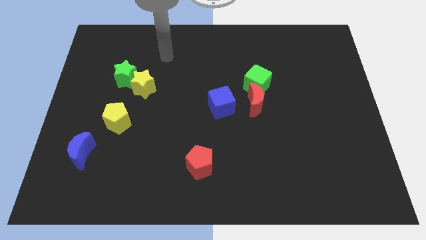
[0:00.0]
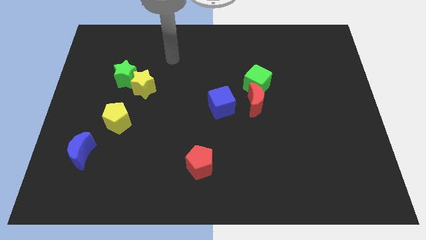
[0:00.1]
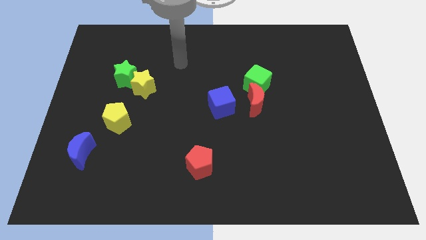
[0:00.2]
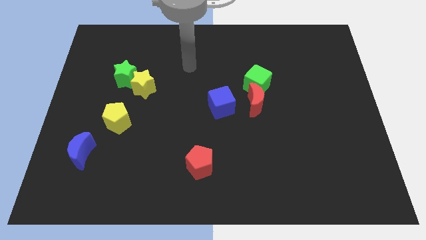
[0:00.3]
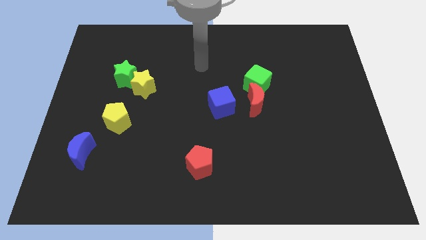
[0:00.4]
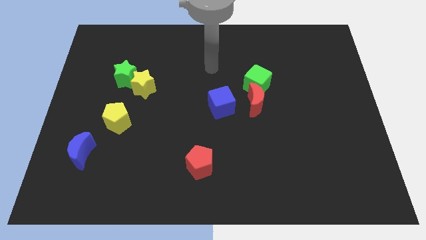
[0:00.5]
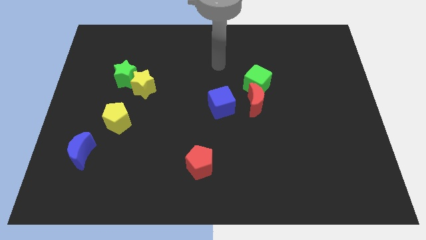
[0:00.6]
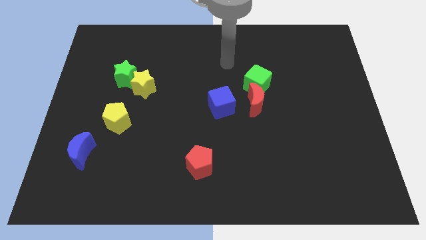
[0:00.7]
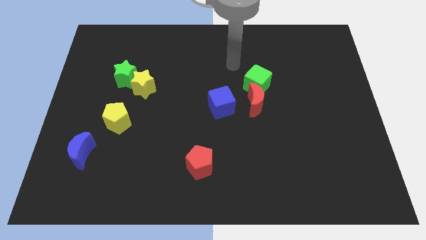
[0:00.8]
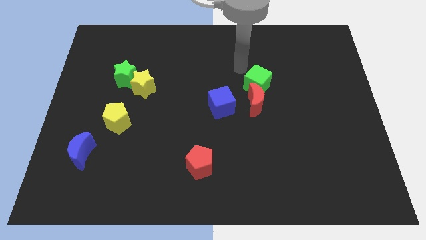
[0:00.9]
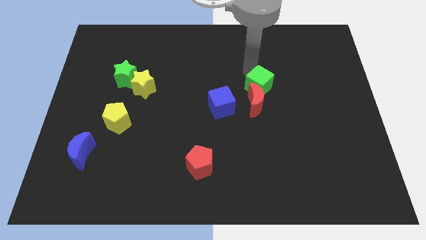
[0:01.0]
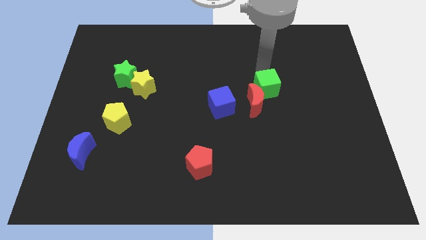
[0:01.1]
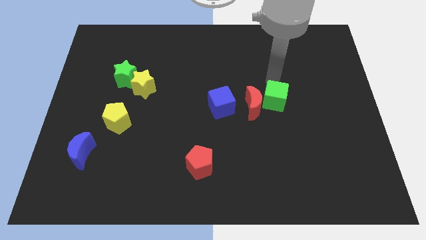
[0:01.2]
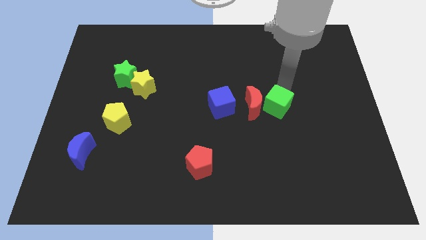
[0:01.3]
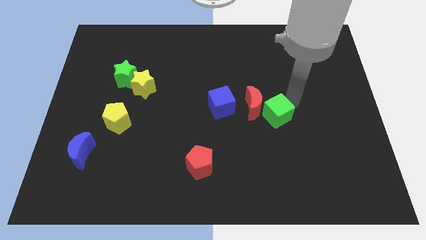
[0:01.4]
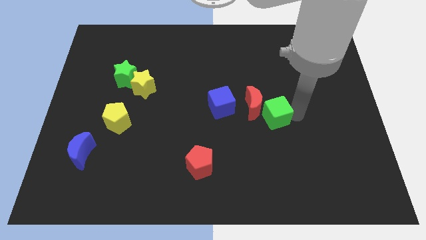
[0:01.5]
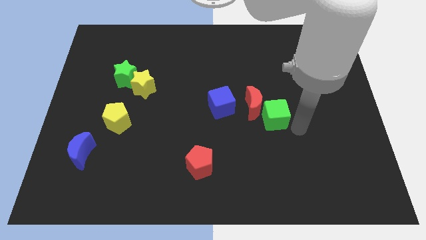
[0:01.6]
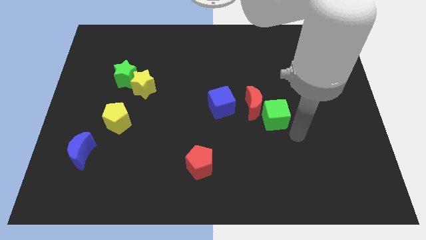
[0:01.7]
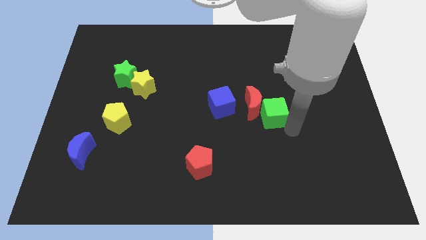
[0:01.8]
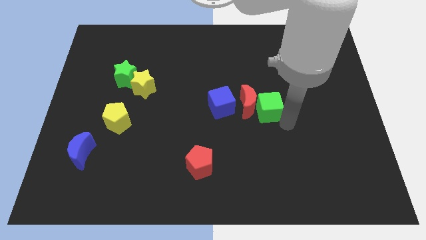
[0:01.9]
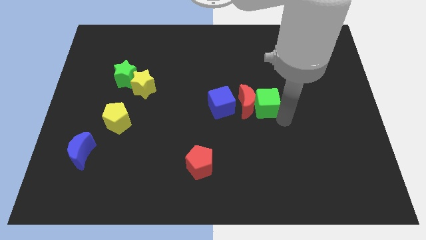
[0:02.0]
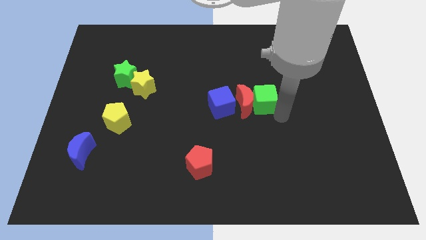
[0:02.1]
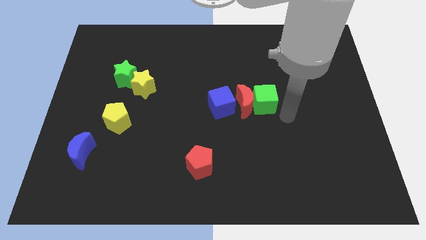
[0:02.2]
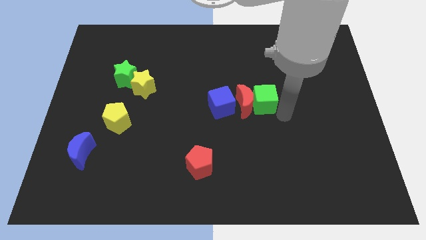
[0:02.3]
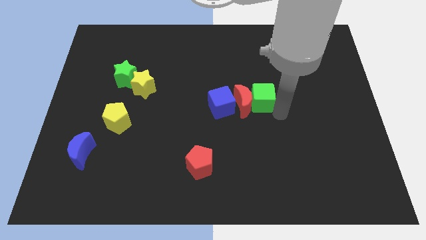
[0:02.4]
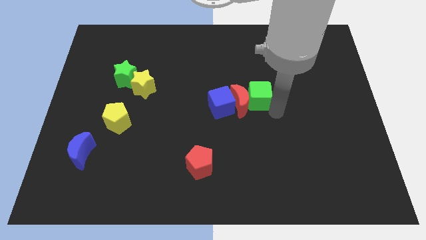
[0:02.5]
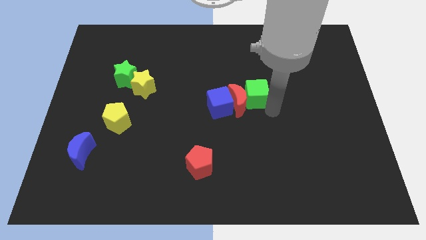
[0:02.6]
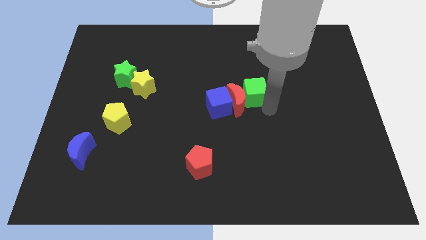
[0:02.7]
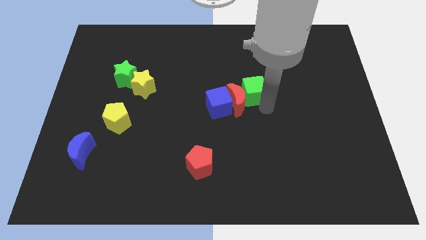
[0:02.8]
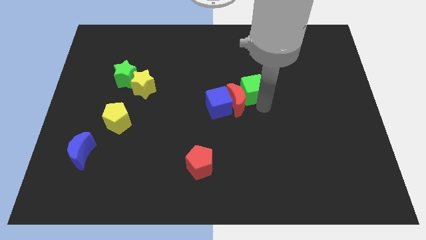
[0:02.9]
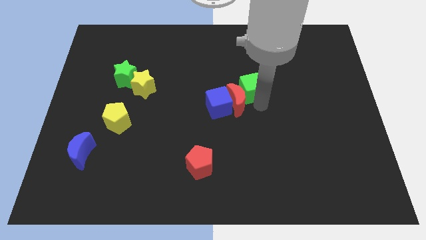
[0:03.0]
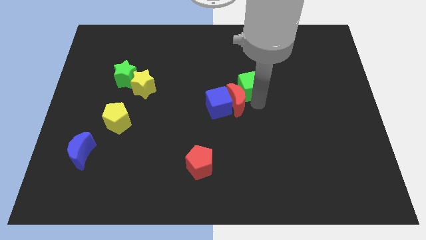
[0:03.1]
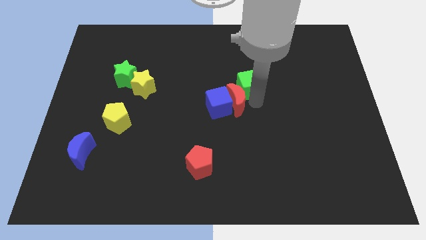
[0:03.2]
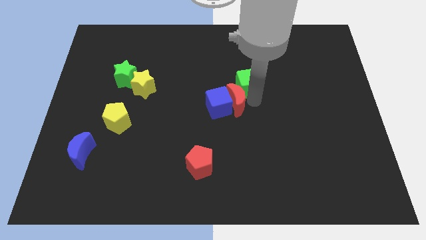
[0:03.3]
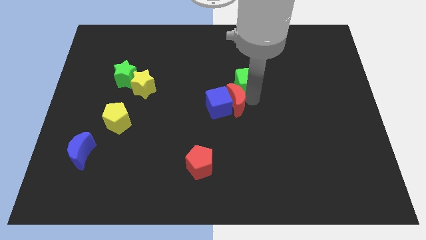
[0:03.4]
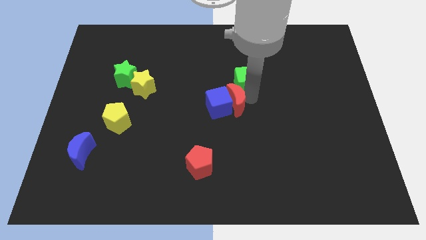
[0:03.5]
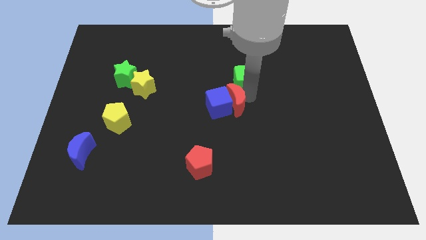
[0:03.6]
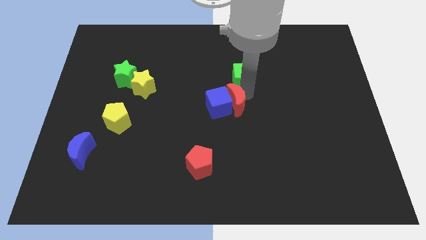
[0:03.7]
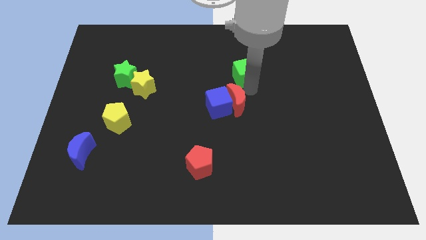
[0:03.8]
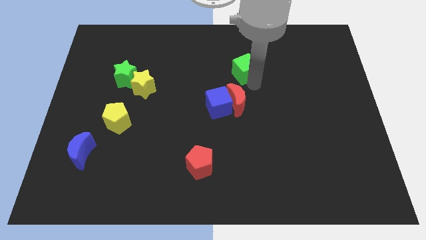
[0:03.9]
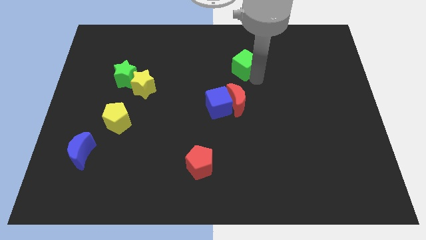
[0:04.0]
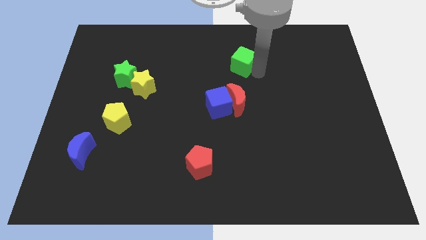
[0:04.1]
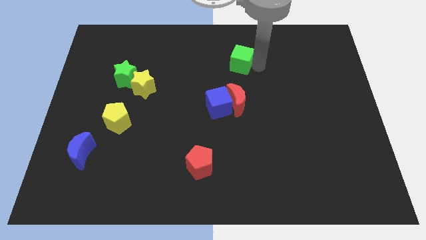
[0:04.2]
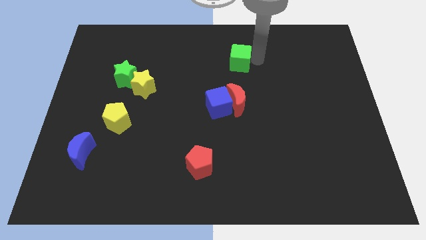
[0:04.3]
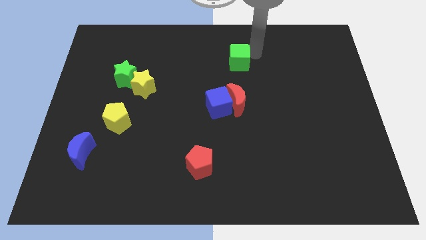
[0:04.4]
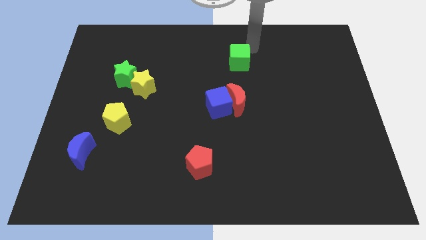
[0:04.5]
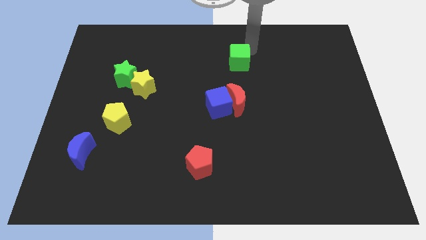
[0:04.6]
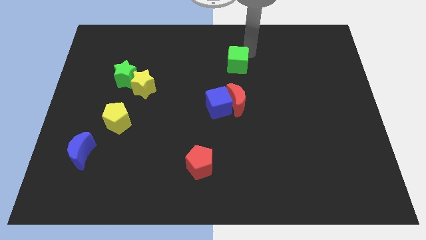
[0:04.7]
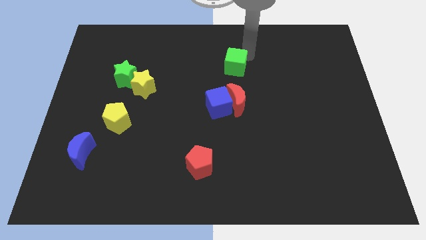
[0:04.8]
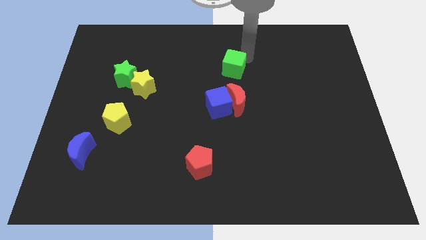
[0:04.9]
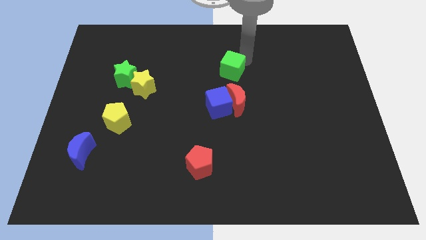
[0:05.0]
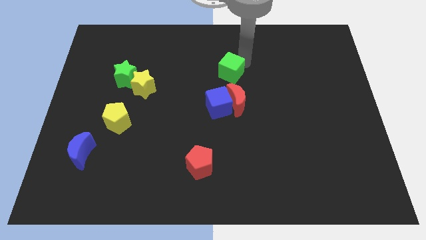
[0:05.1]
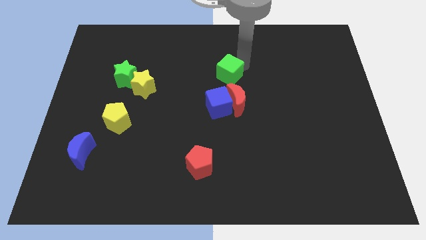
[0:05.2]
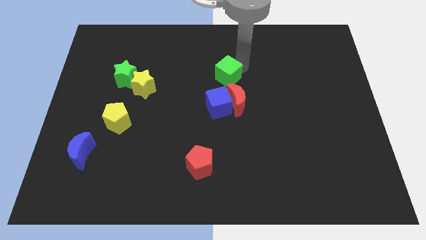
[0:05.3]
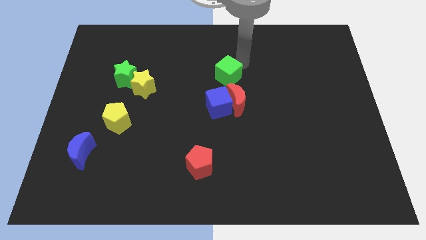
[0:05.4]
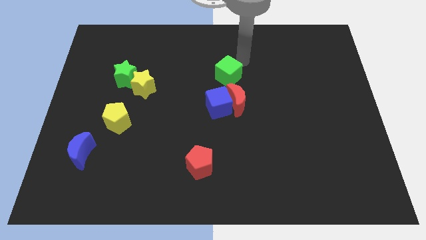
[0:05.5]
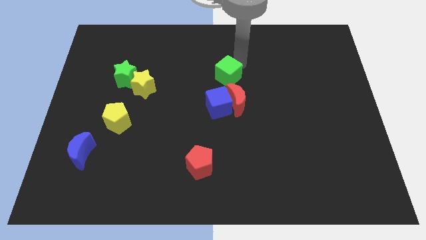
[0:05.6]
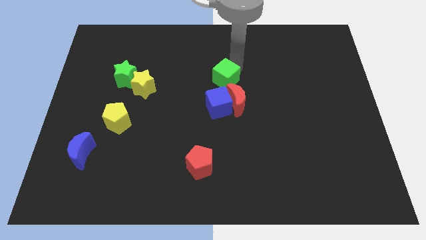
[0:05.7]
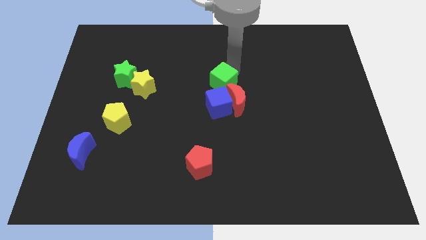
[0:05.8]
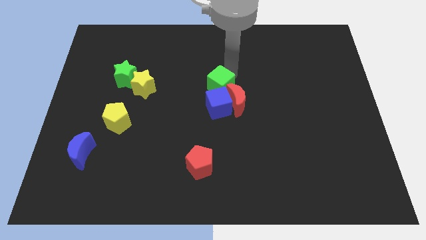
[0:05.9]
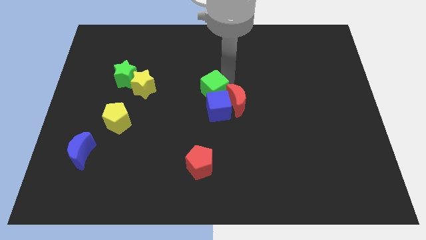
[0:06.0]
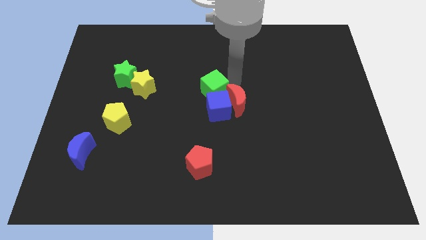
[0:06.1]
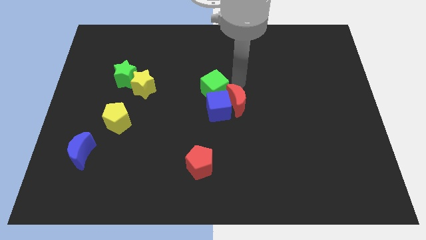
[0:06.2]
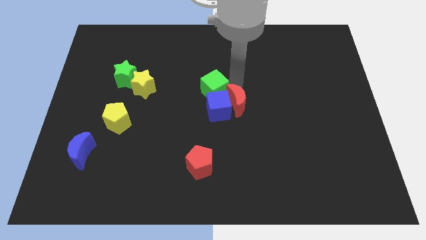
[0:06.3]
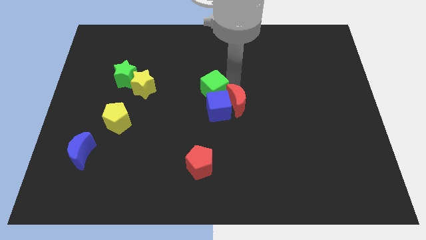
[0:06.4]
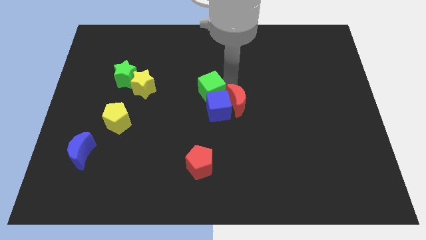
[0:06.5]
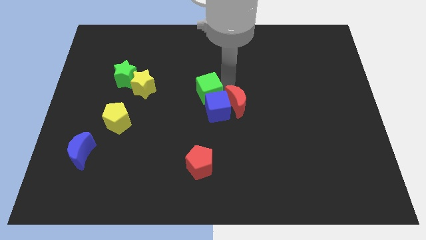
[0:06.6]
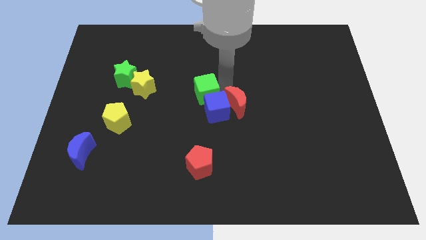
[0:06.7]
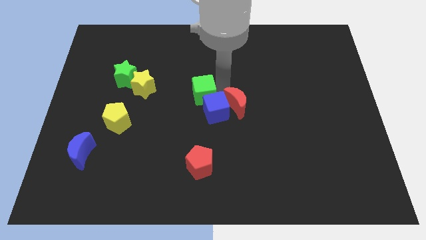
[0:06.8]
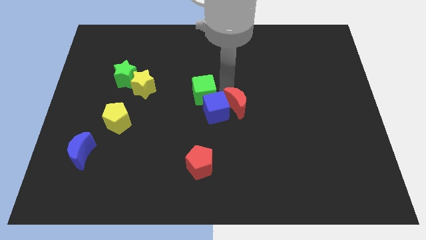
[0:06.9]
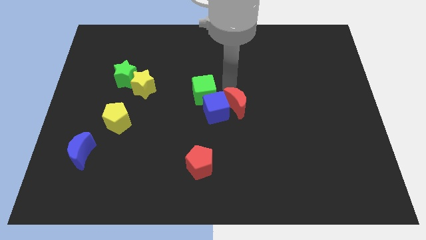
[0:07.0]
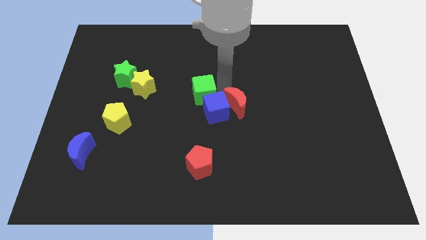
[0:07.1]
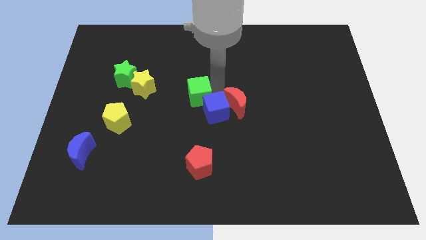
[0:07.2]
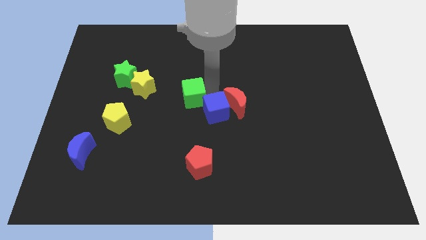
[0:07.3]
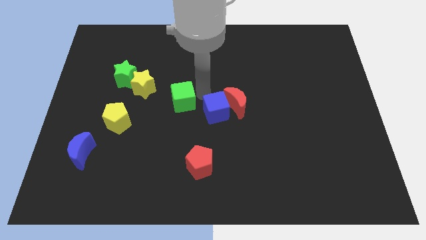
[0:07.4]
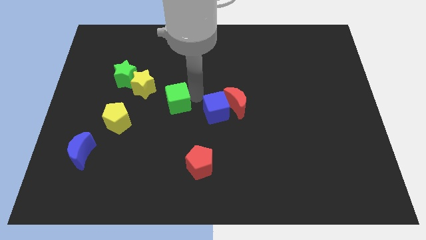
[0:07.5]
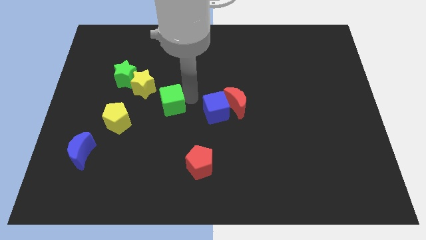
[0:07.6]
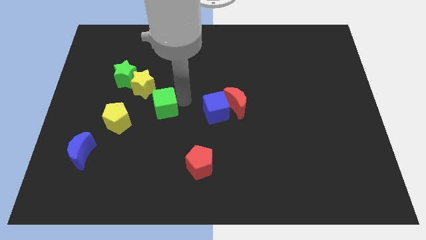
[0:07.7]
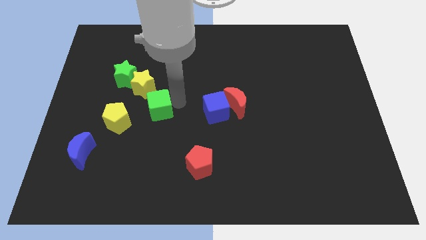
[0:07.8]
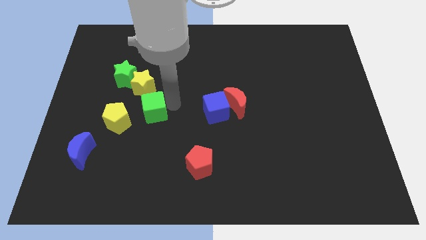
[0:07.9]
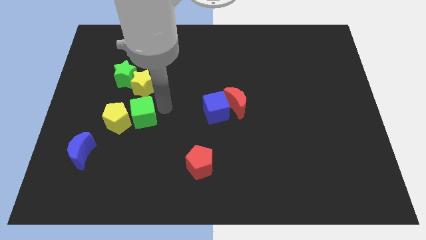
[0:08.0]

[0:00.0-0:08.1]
push the green cube close to the yellow pentagon
